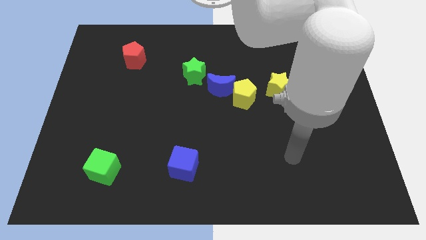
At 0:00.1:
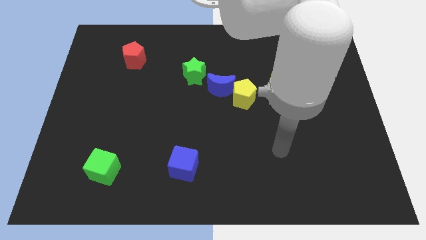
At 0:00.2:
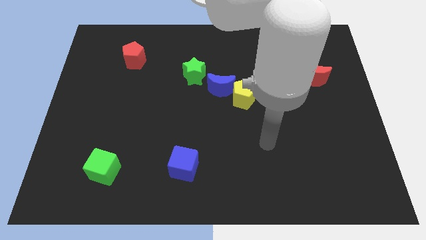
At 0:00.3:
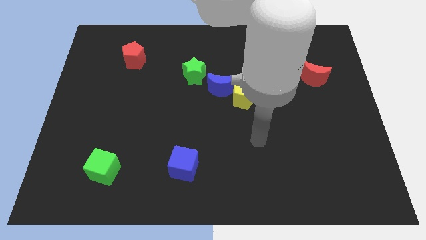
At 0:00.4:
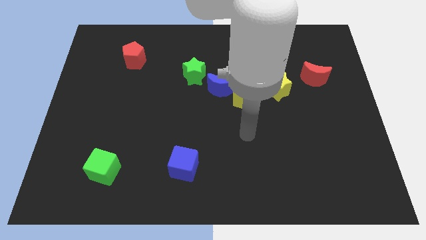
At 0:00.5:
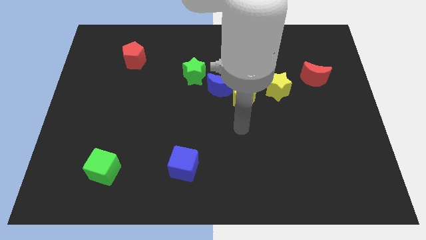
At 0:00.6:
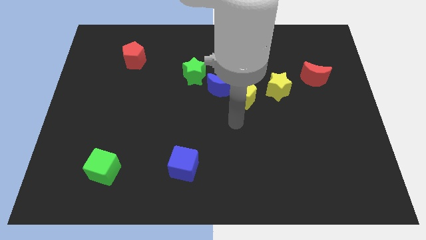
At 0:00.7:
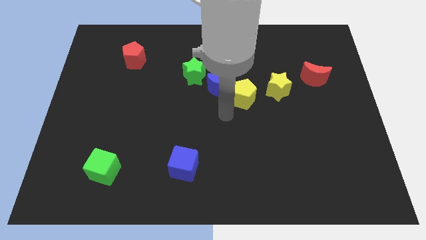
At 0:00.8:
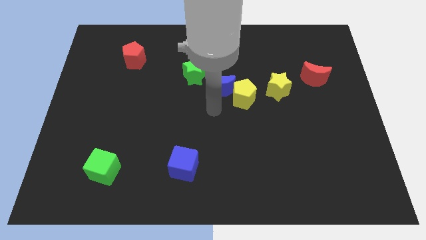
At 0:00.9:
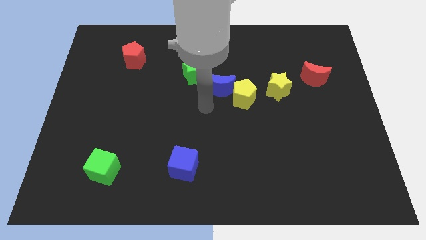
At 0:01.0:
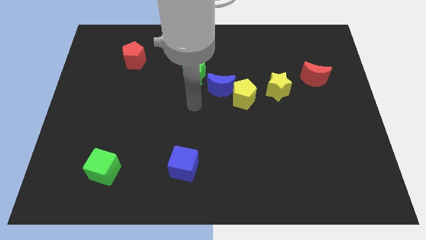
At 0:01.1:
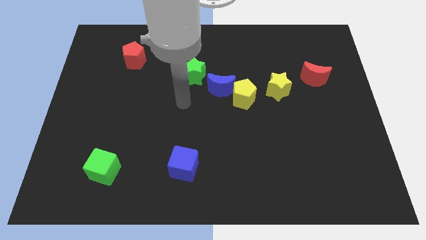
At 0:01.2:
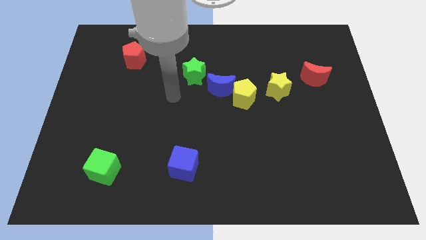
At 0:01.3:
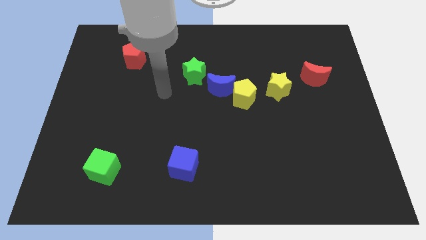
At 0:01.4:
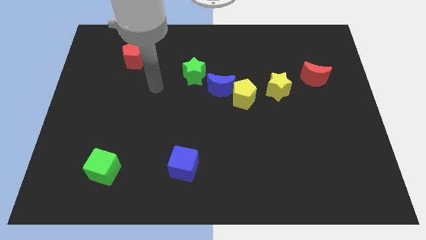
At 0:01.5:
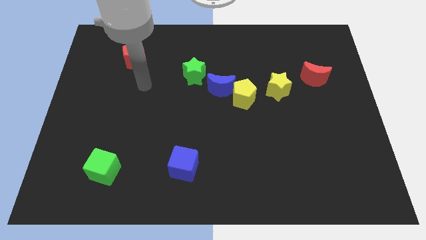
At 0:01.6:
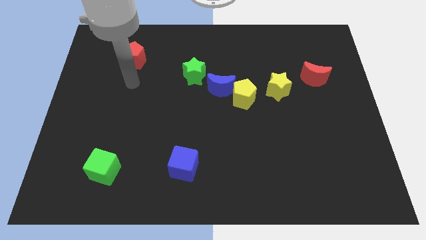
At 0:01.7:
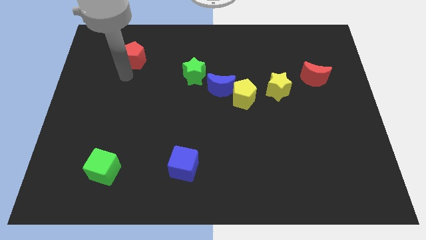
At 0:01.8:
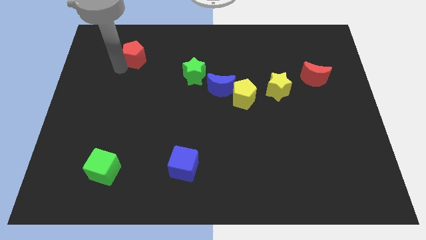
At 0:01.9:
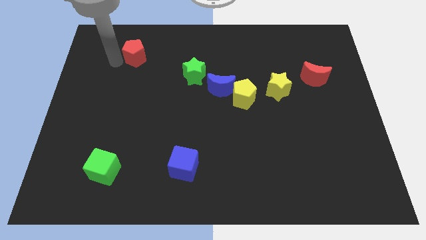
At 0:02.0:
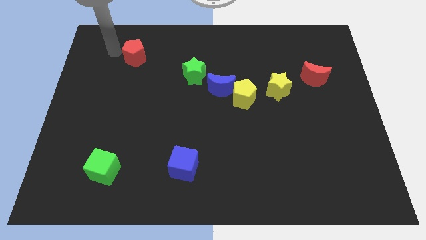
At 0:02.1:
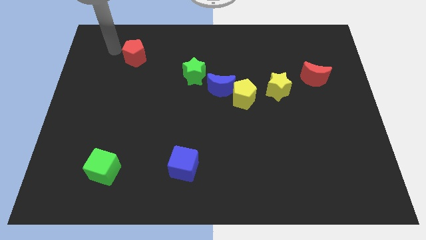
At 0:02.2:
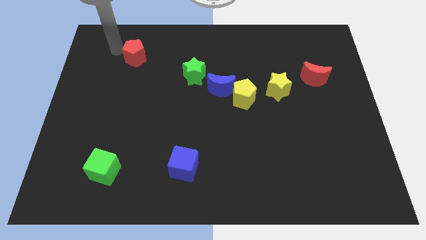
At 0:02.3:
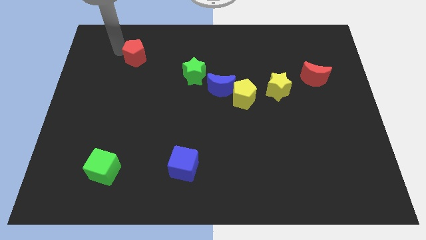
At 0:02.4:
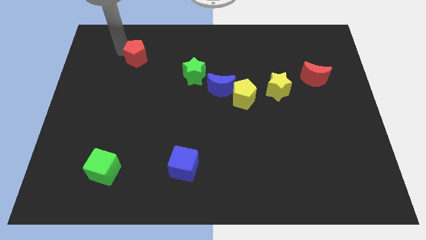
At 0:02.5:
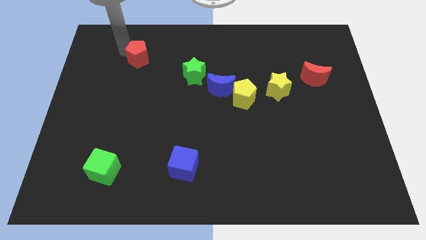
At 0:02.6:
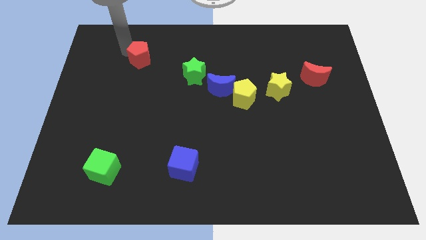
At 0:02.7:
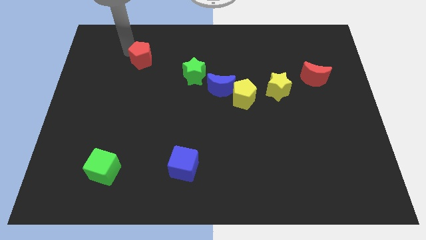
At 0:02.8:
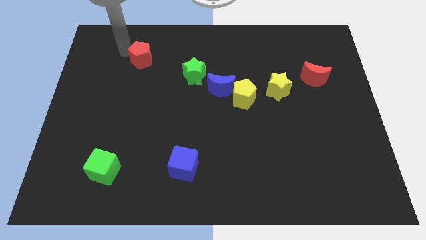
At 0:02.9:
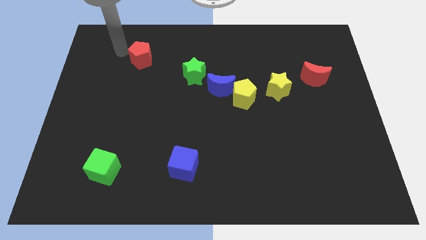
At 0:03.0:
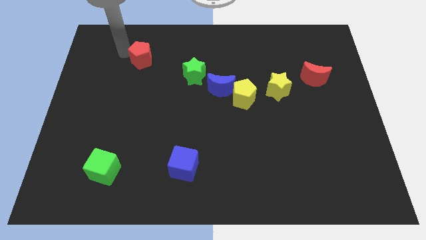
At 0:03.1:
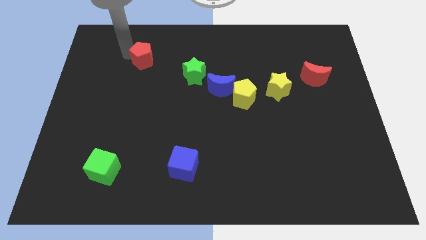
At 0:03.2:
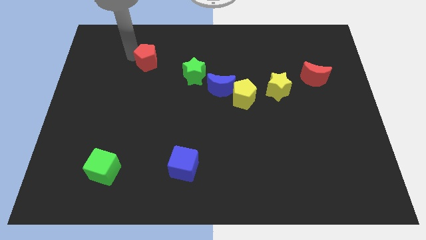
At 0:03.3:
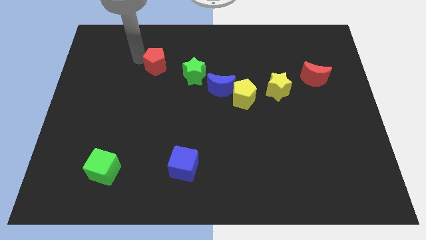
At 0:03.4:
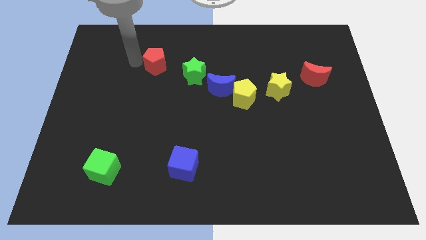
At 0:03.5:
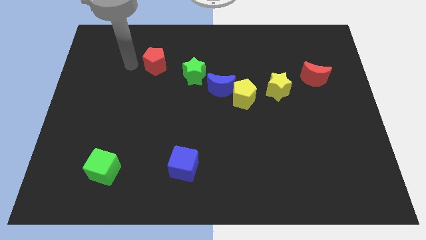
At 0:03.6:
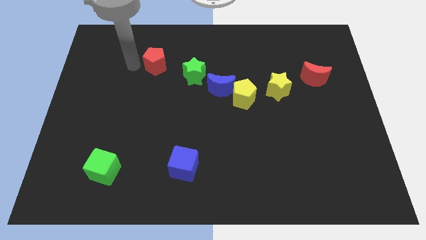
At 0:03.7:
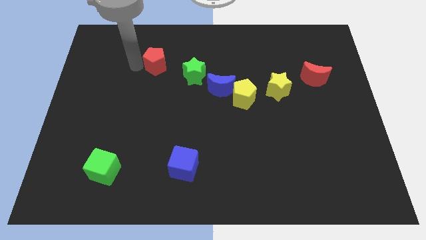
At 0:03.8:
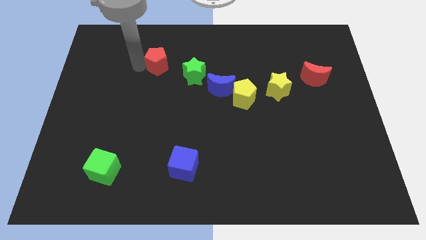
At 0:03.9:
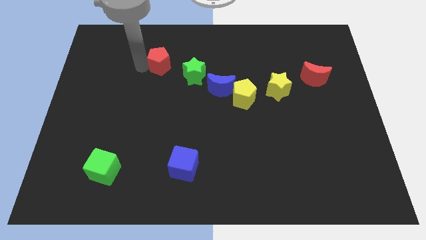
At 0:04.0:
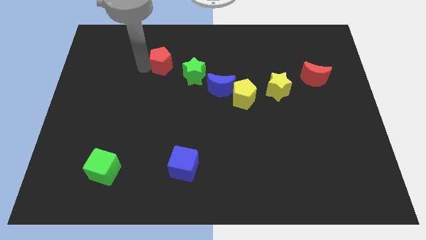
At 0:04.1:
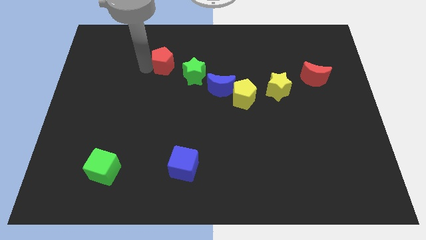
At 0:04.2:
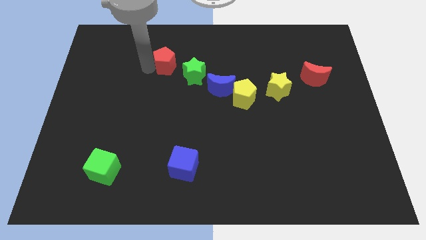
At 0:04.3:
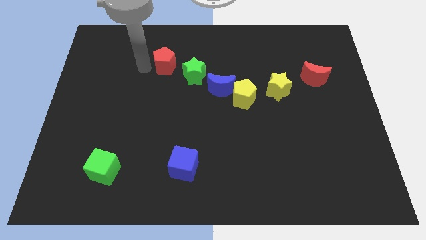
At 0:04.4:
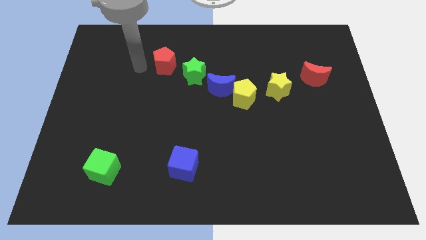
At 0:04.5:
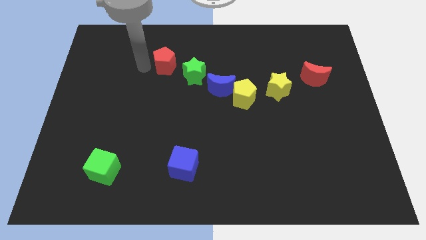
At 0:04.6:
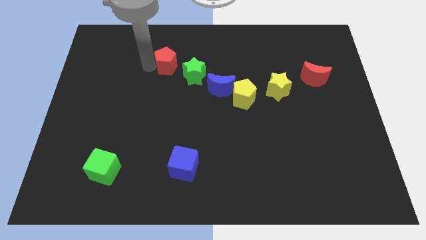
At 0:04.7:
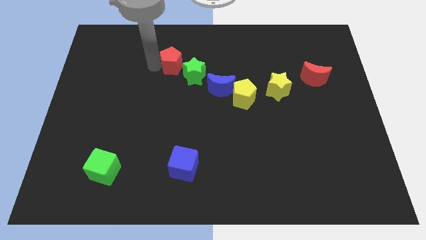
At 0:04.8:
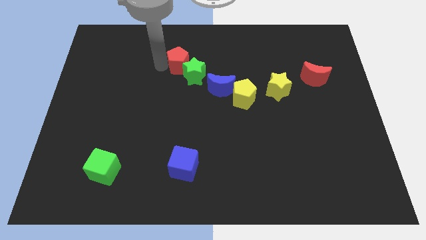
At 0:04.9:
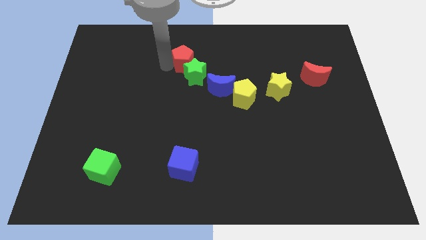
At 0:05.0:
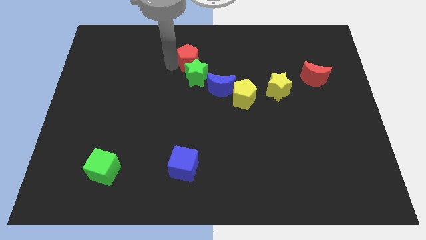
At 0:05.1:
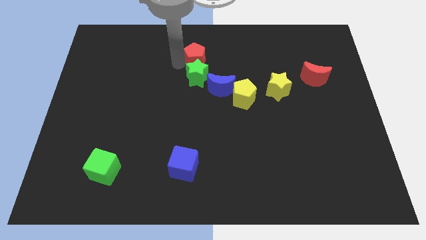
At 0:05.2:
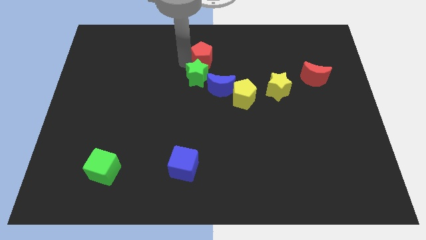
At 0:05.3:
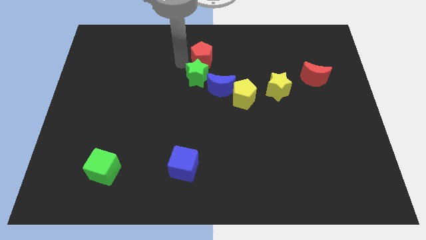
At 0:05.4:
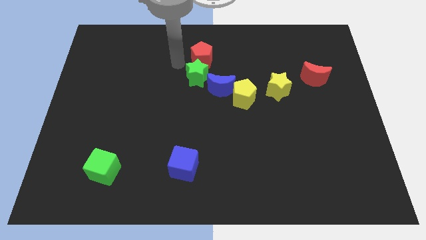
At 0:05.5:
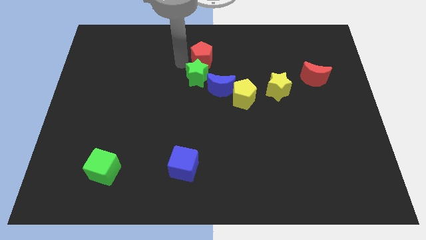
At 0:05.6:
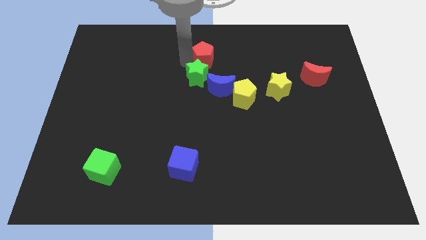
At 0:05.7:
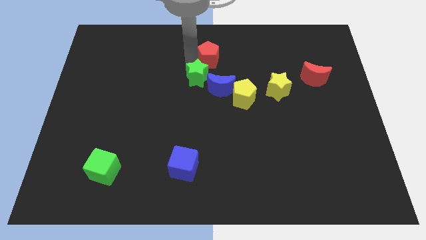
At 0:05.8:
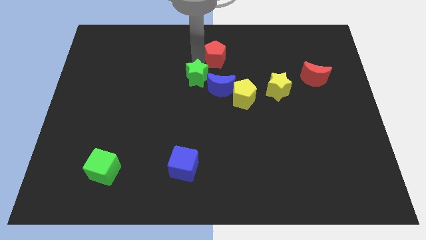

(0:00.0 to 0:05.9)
move the red pentagon to the right

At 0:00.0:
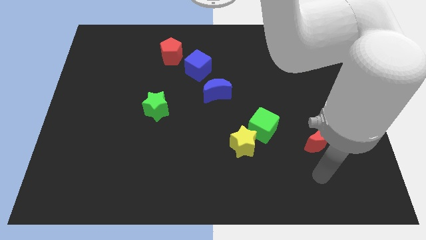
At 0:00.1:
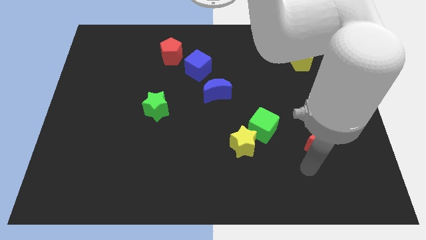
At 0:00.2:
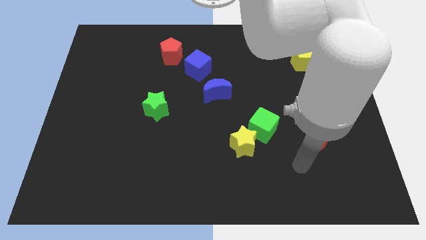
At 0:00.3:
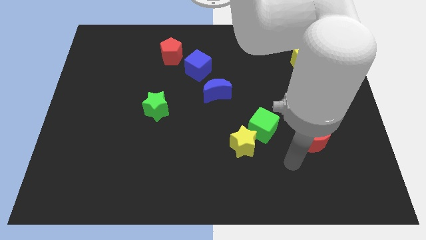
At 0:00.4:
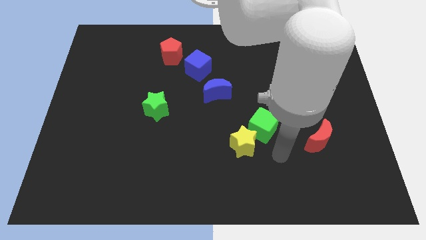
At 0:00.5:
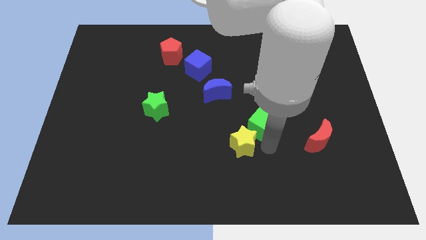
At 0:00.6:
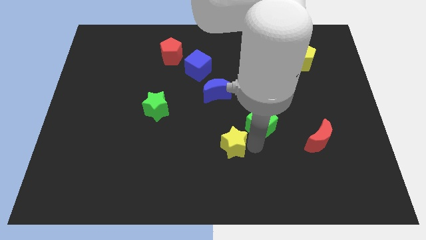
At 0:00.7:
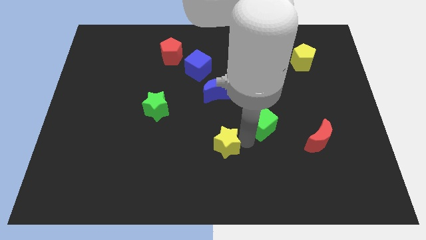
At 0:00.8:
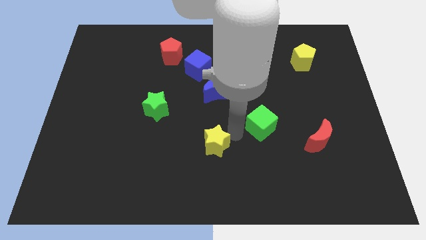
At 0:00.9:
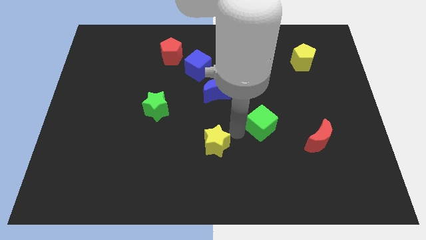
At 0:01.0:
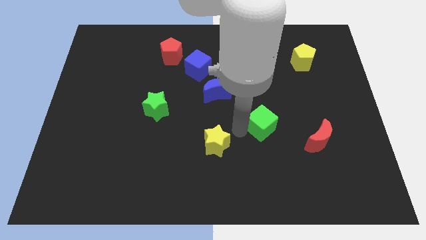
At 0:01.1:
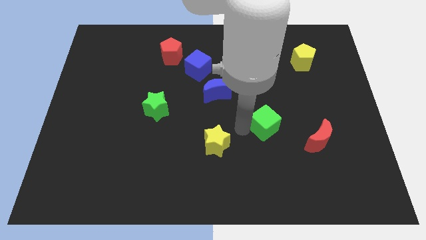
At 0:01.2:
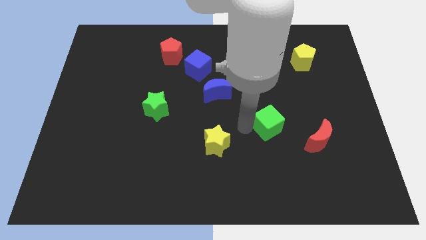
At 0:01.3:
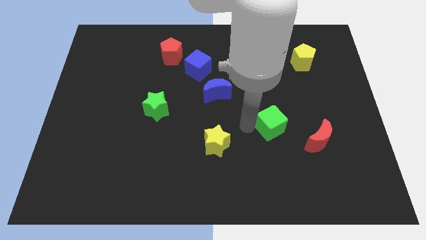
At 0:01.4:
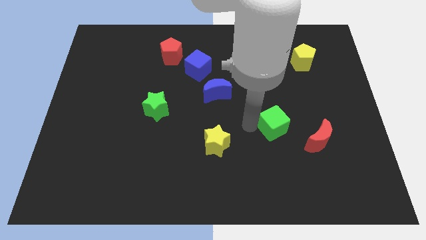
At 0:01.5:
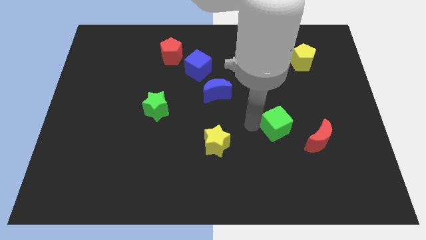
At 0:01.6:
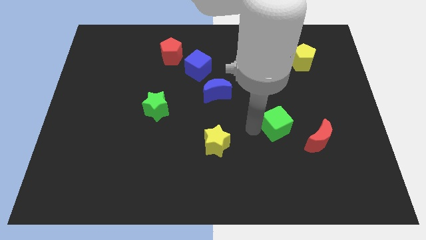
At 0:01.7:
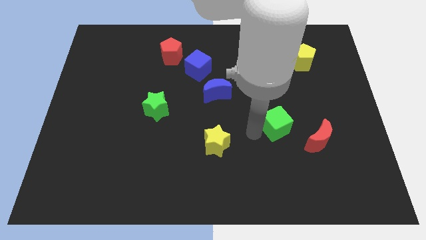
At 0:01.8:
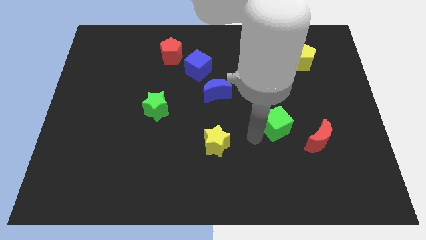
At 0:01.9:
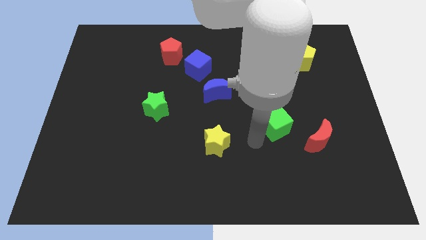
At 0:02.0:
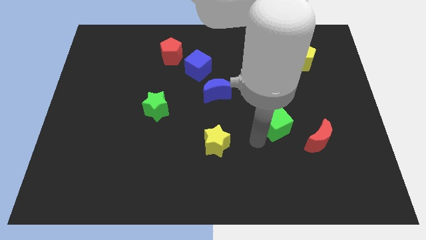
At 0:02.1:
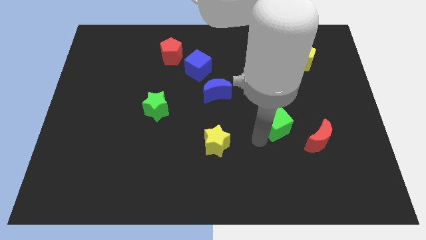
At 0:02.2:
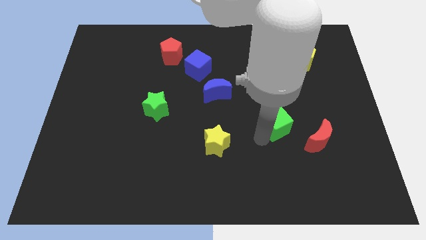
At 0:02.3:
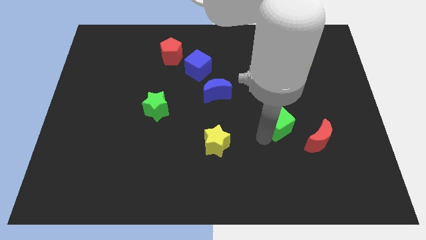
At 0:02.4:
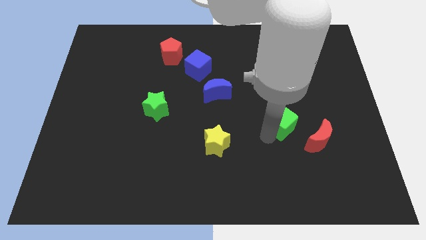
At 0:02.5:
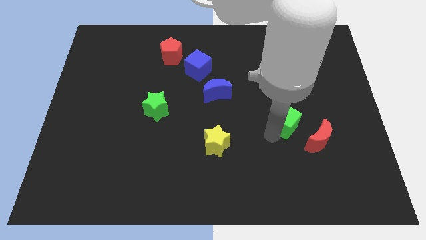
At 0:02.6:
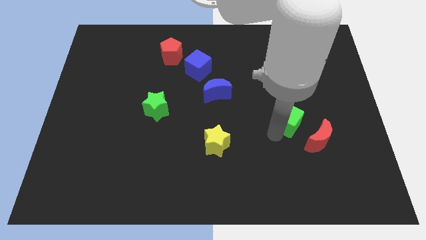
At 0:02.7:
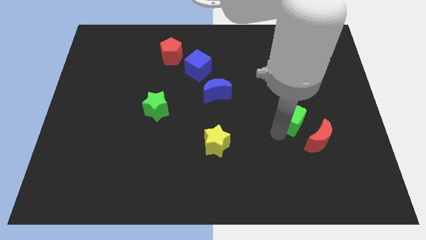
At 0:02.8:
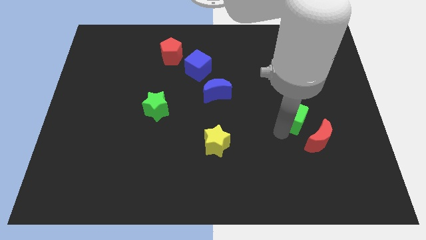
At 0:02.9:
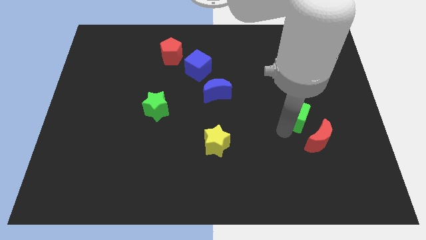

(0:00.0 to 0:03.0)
slide the green cube upwards and to the right diagonally a bit
